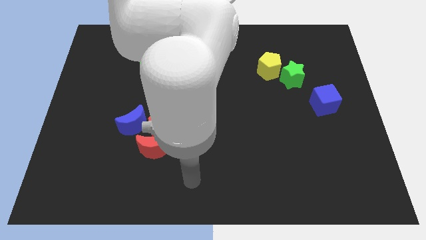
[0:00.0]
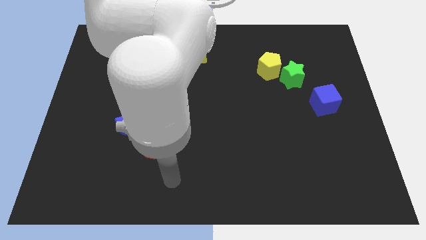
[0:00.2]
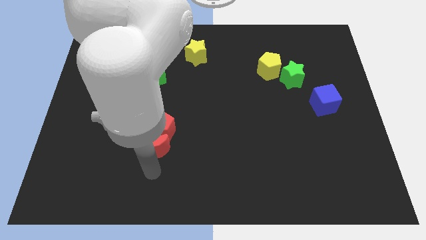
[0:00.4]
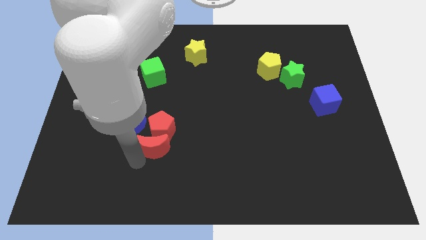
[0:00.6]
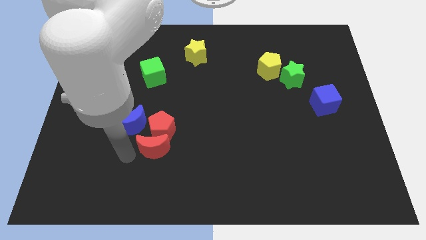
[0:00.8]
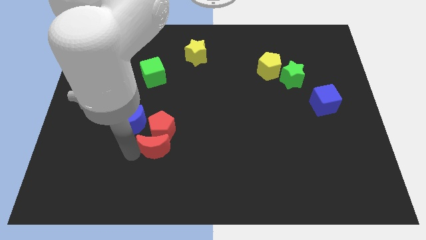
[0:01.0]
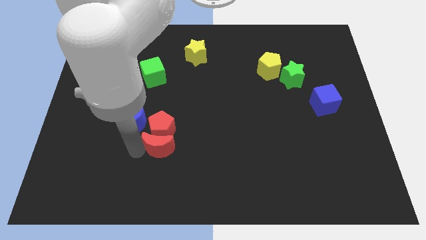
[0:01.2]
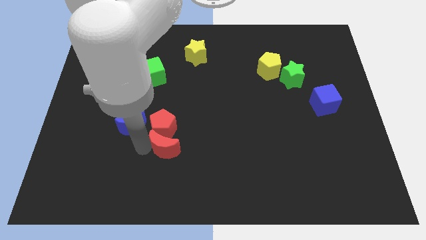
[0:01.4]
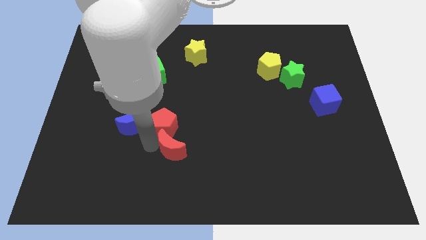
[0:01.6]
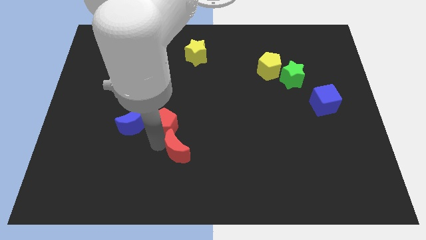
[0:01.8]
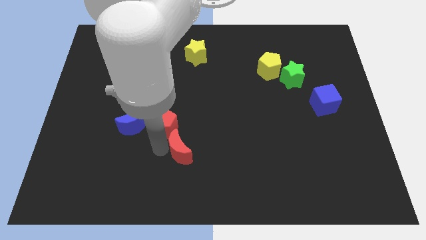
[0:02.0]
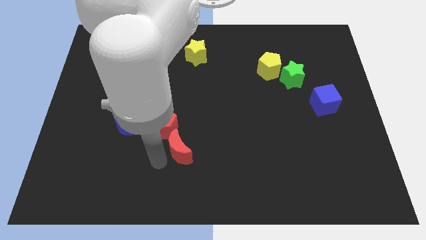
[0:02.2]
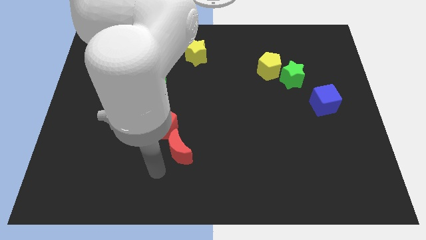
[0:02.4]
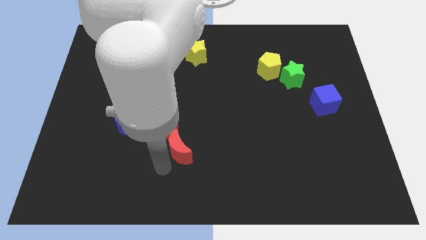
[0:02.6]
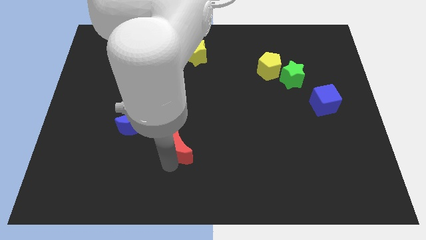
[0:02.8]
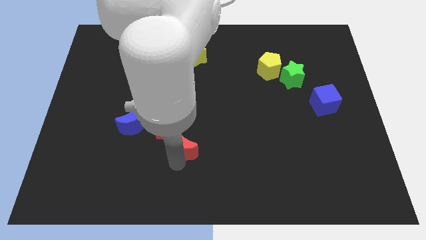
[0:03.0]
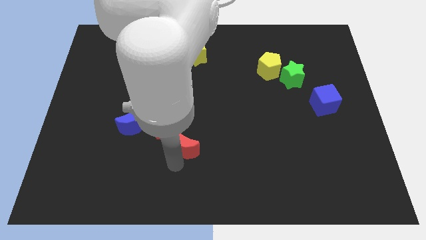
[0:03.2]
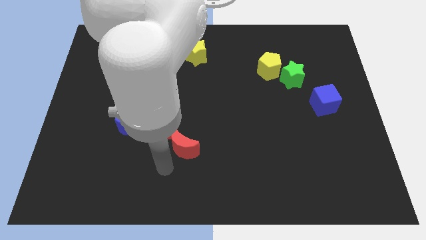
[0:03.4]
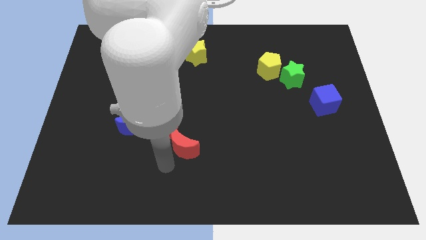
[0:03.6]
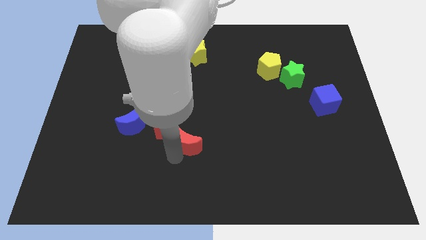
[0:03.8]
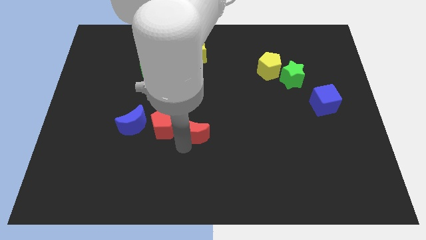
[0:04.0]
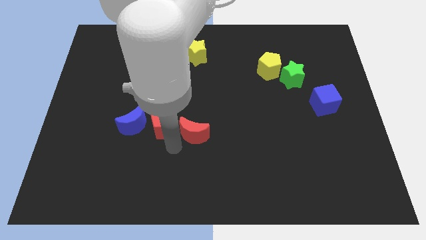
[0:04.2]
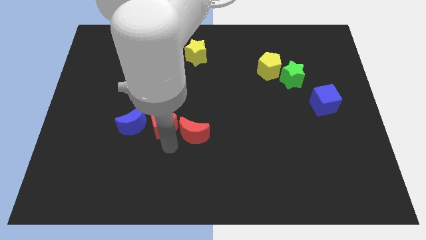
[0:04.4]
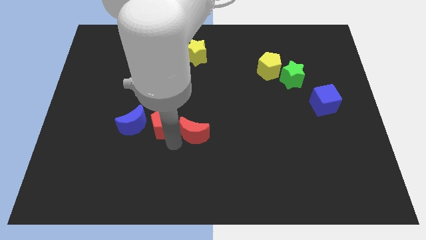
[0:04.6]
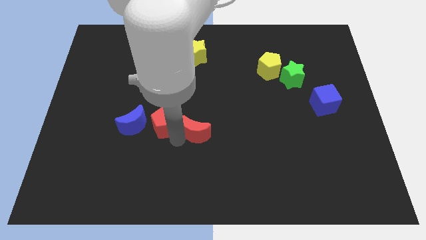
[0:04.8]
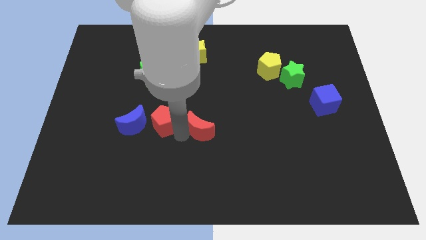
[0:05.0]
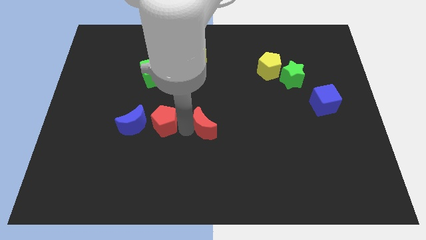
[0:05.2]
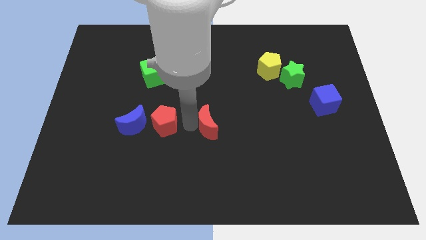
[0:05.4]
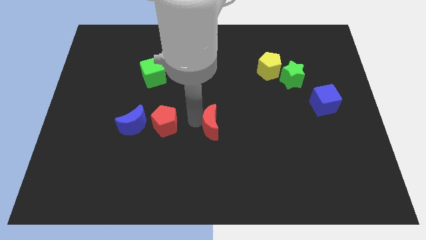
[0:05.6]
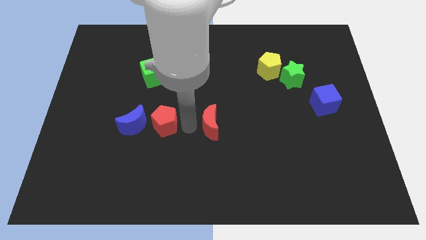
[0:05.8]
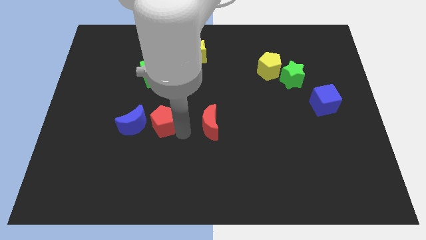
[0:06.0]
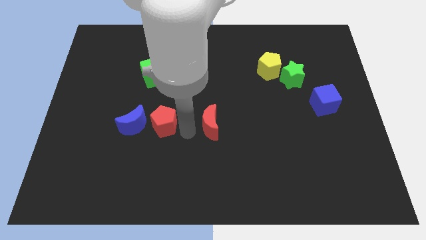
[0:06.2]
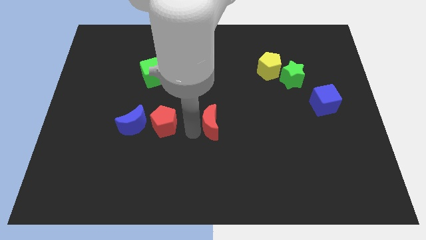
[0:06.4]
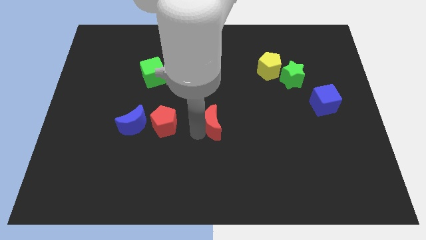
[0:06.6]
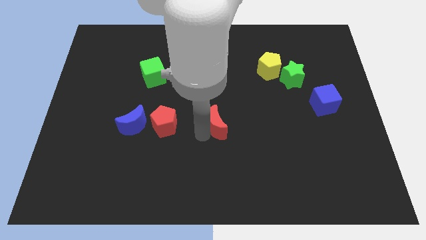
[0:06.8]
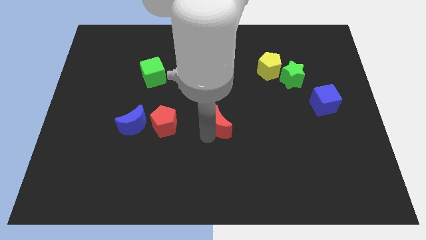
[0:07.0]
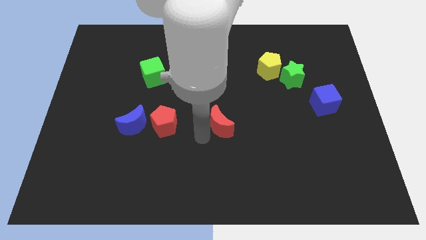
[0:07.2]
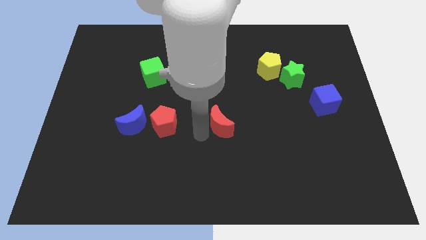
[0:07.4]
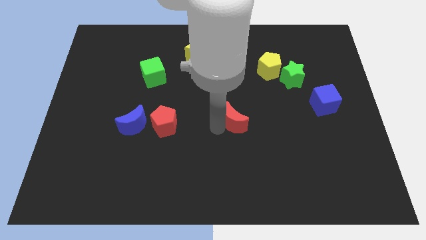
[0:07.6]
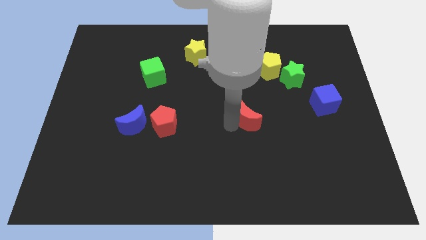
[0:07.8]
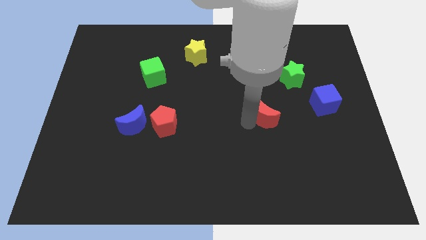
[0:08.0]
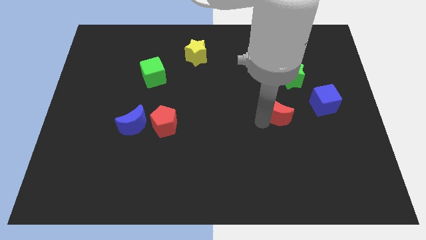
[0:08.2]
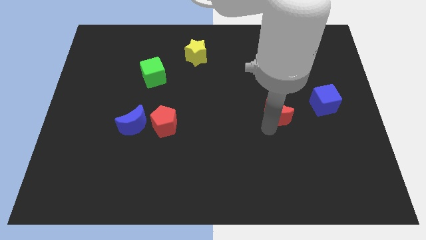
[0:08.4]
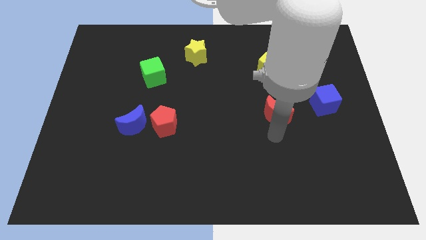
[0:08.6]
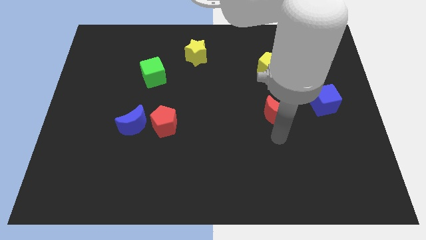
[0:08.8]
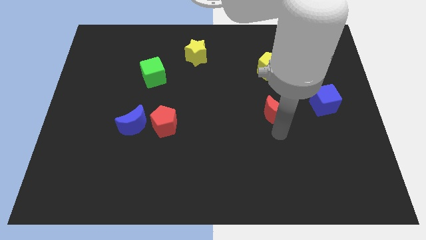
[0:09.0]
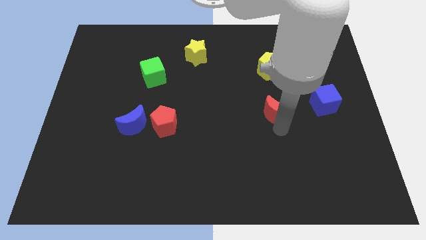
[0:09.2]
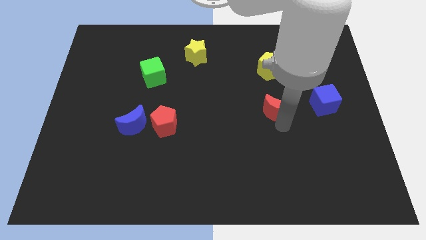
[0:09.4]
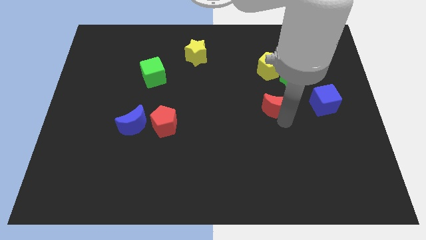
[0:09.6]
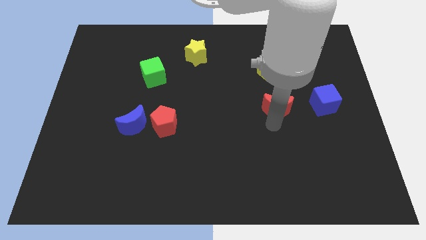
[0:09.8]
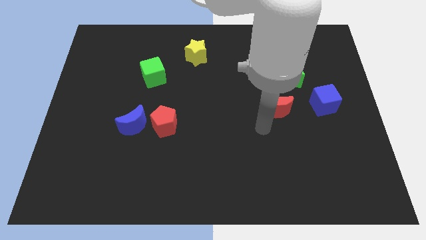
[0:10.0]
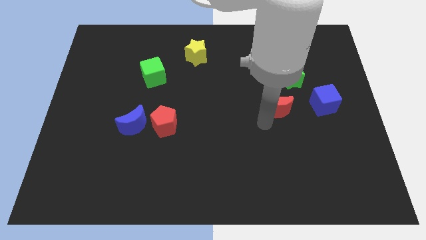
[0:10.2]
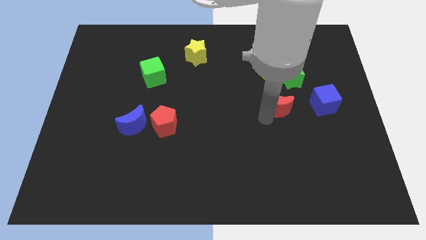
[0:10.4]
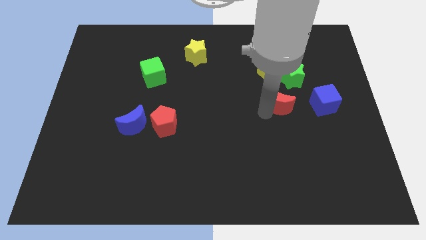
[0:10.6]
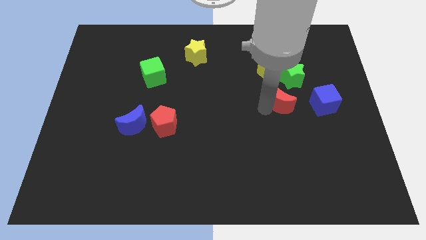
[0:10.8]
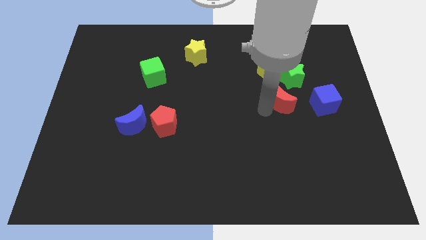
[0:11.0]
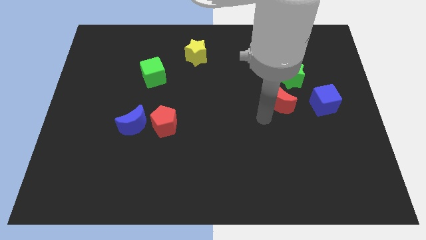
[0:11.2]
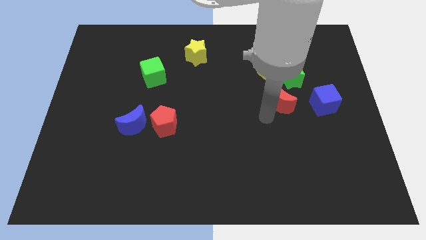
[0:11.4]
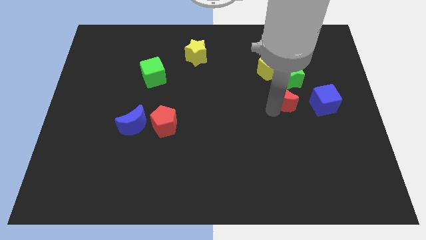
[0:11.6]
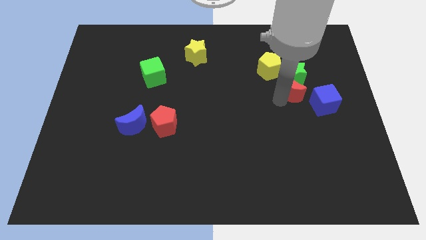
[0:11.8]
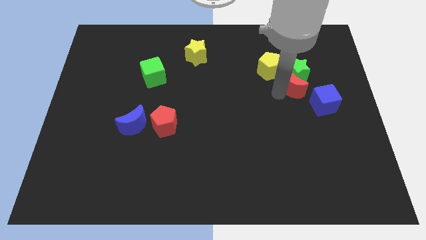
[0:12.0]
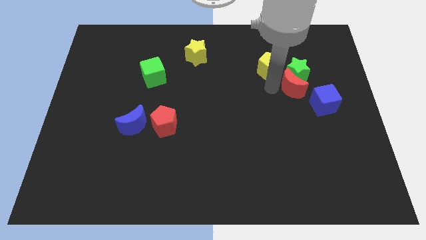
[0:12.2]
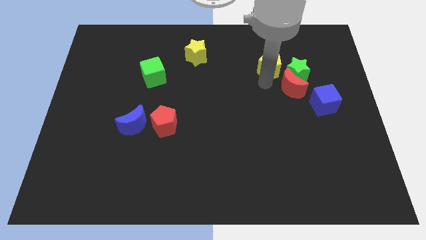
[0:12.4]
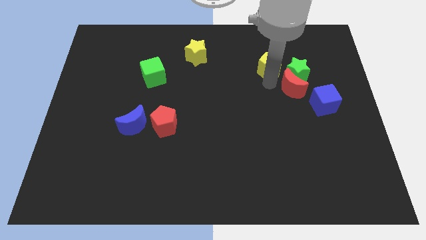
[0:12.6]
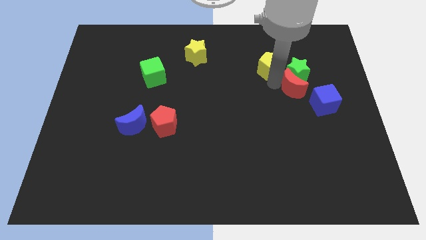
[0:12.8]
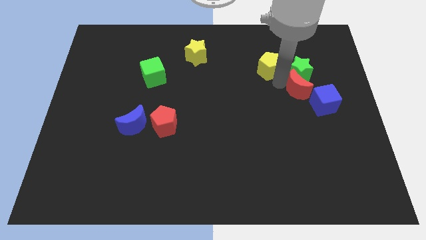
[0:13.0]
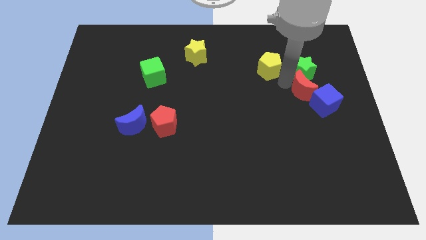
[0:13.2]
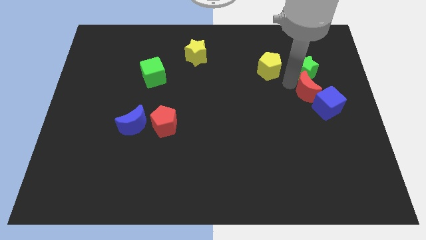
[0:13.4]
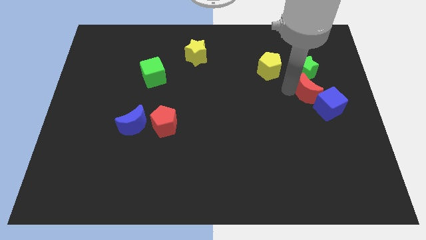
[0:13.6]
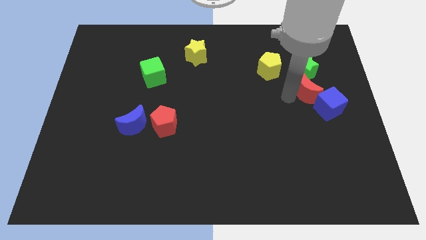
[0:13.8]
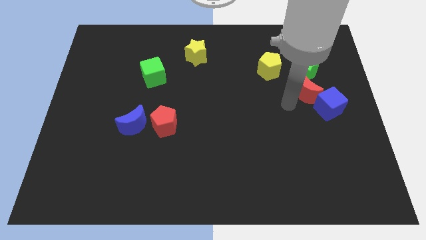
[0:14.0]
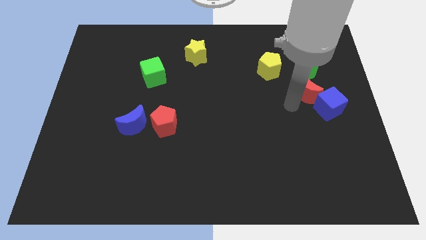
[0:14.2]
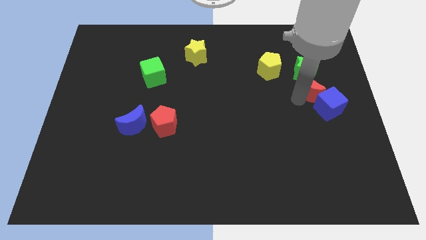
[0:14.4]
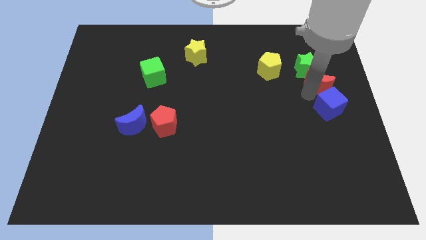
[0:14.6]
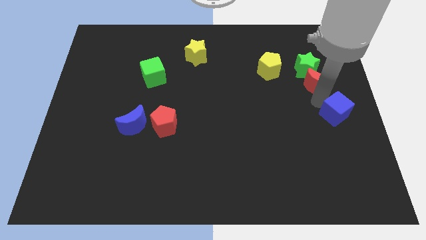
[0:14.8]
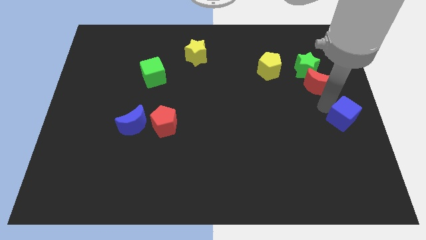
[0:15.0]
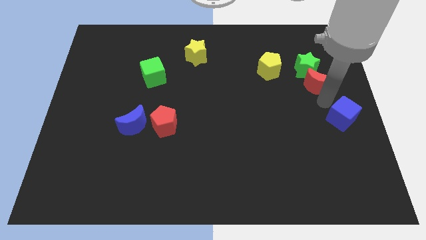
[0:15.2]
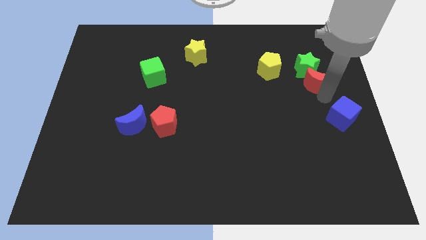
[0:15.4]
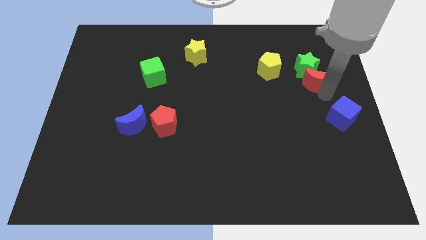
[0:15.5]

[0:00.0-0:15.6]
slide the red moon just right of the yellow pentagon
